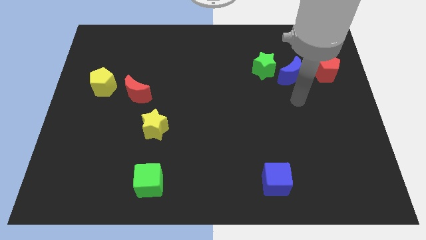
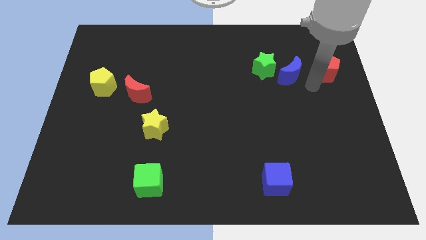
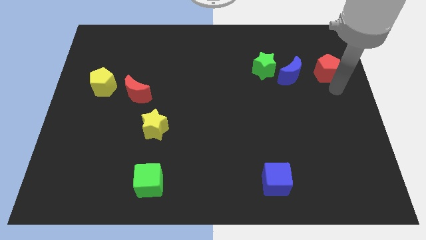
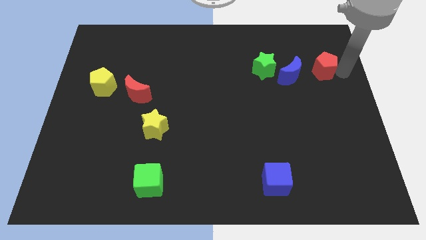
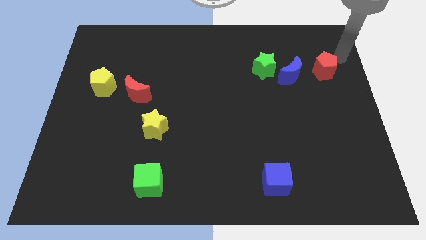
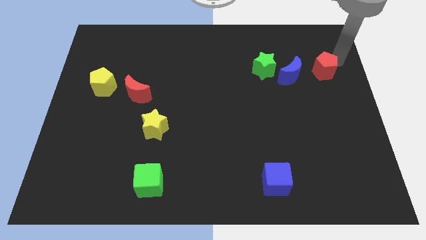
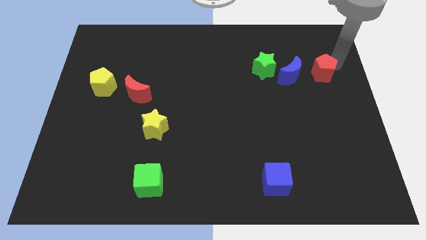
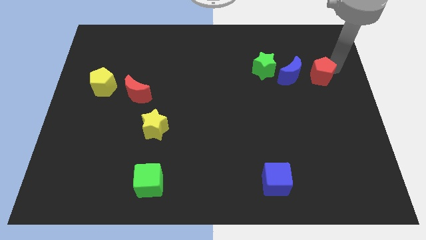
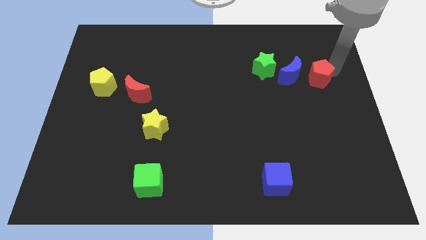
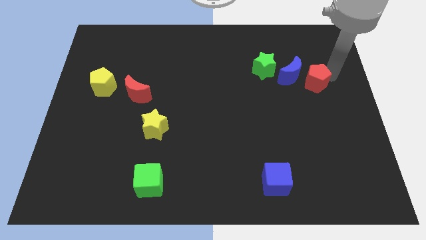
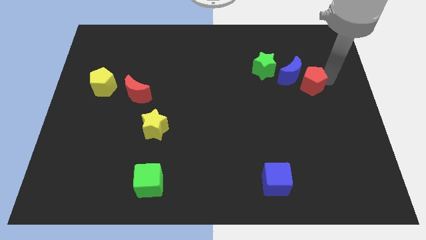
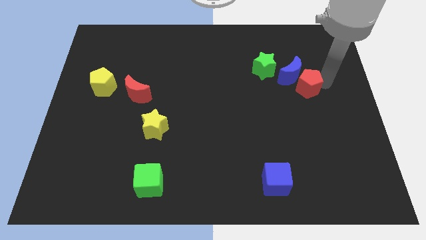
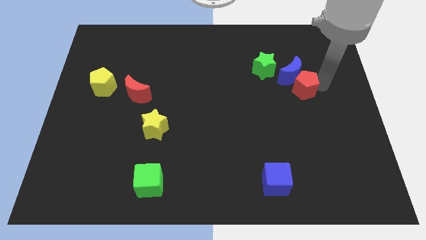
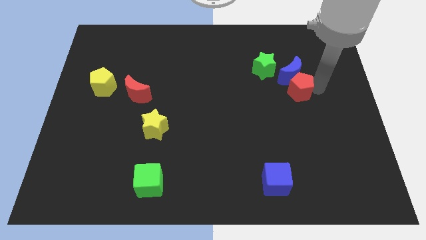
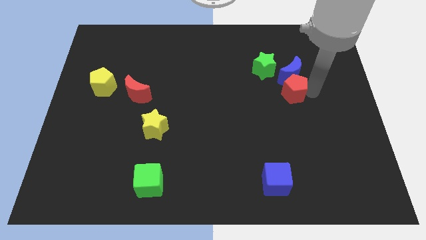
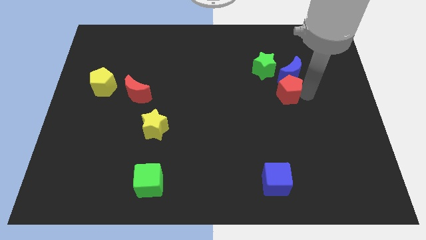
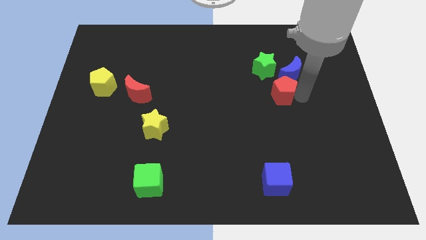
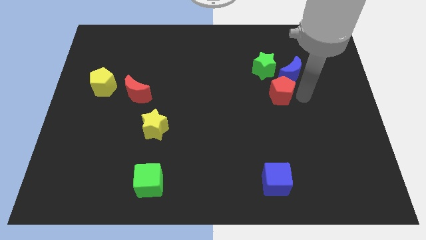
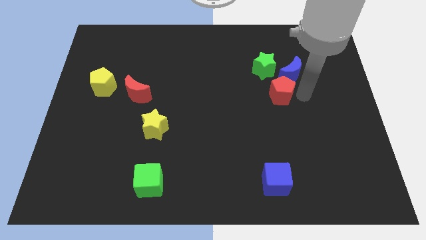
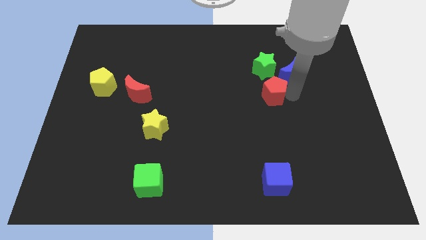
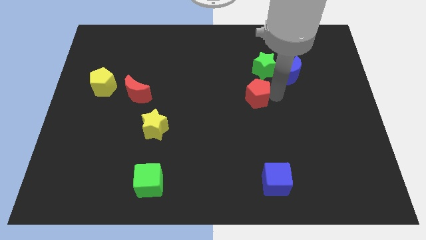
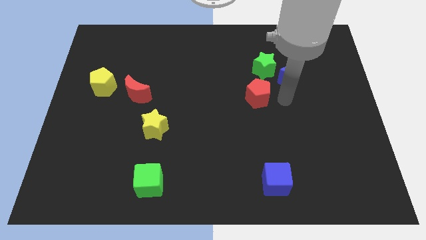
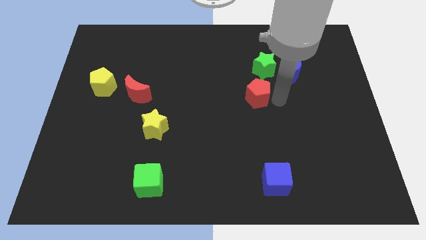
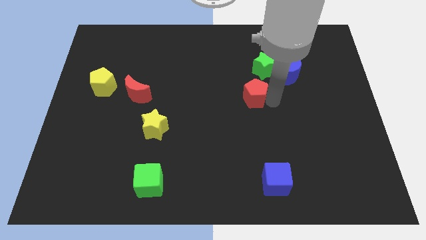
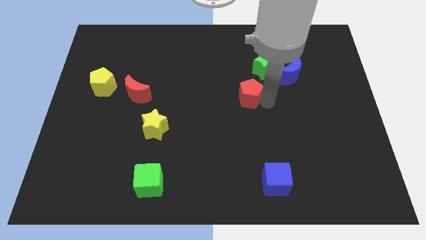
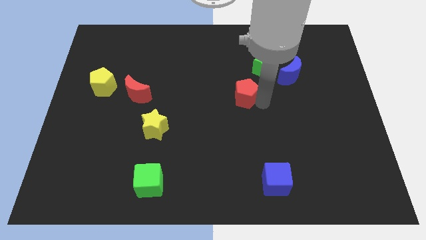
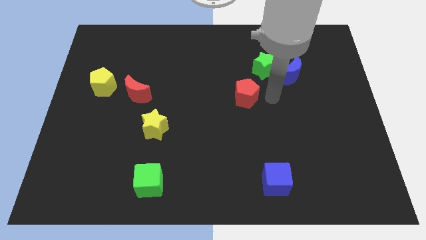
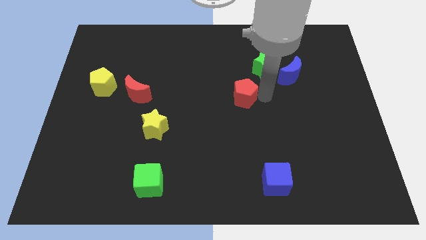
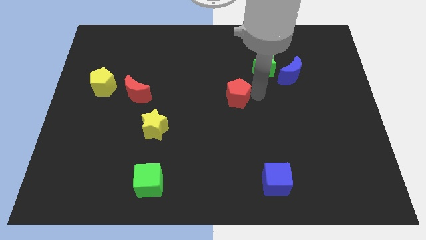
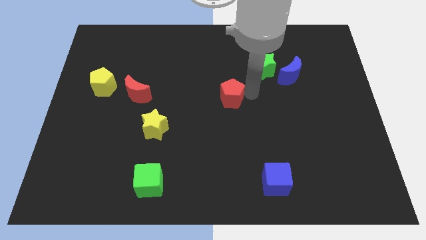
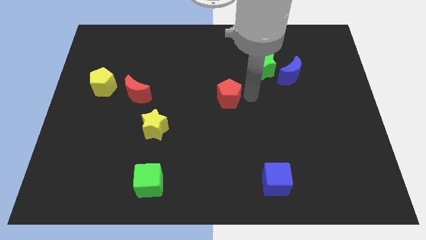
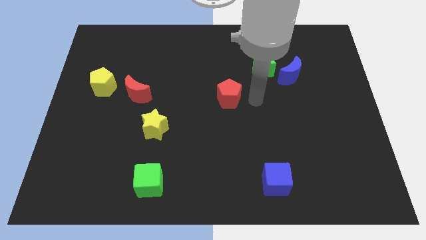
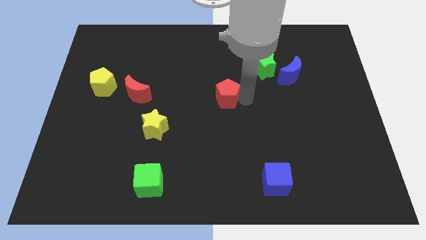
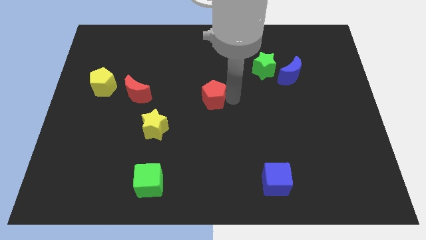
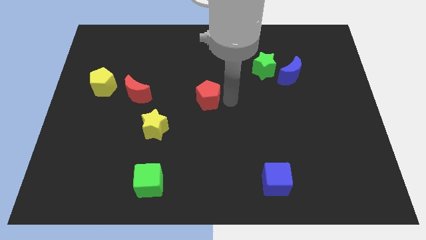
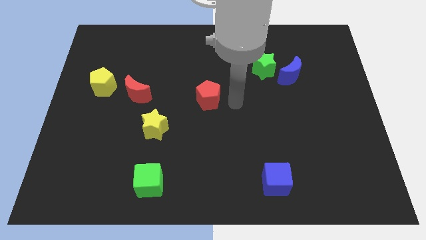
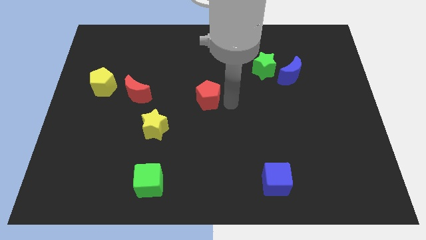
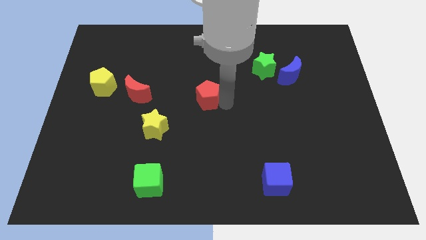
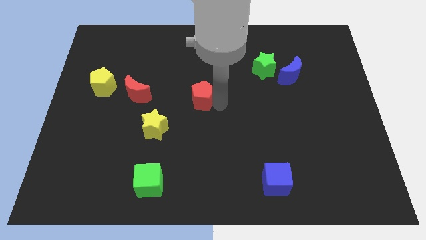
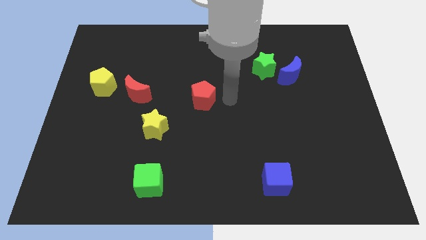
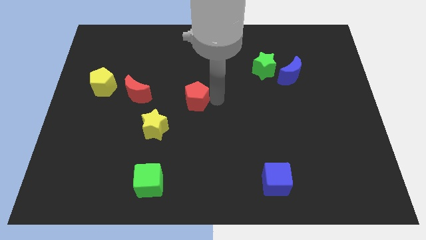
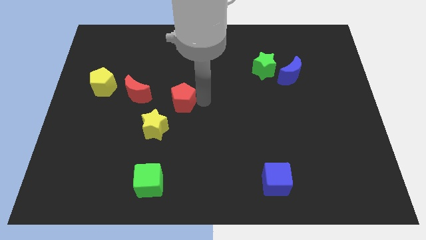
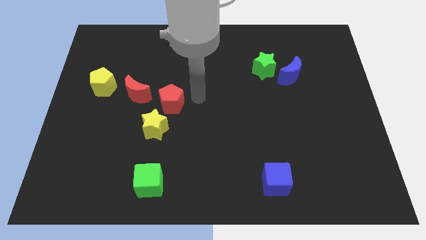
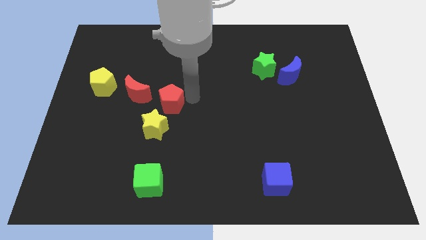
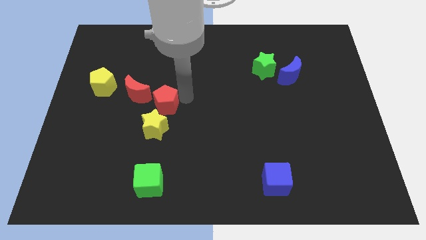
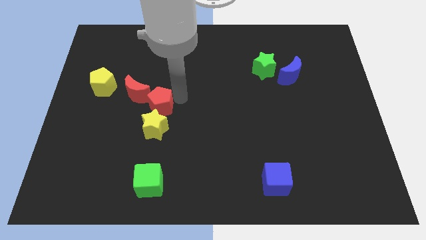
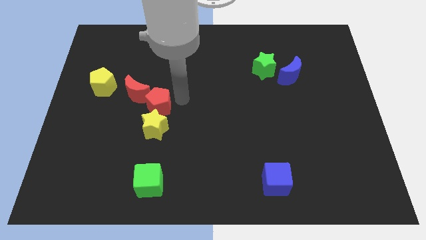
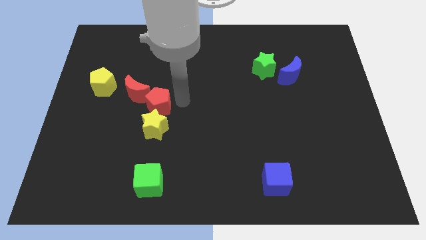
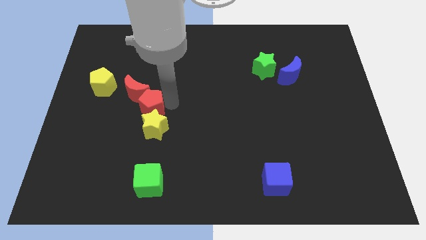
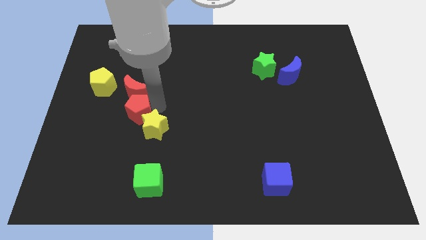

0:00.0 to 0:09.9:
slide the red pentagon left of the yellow star

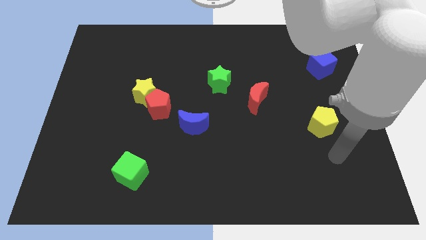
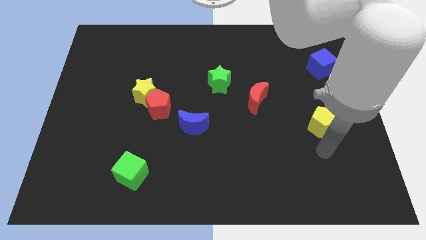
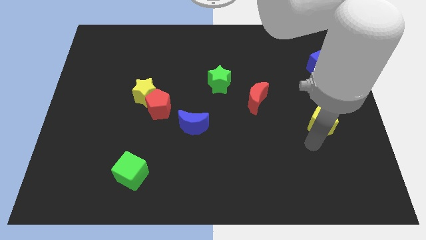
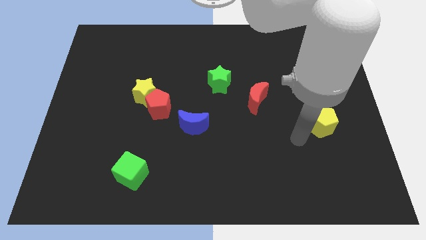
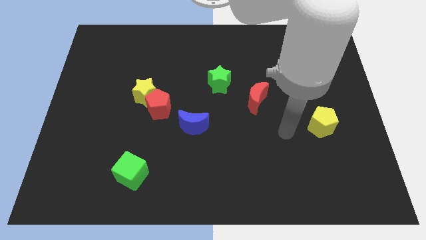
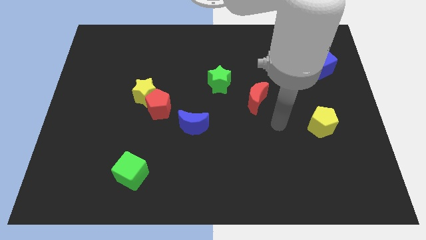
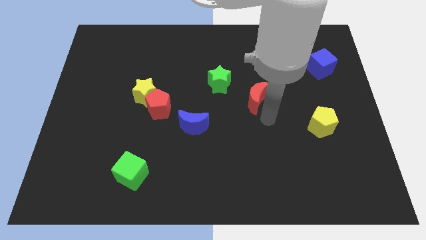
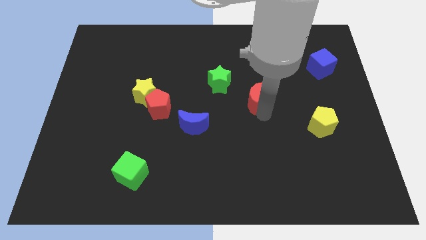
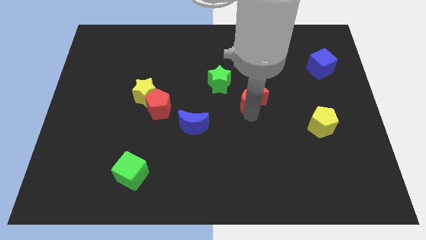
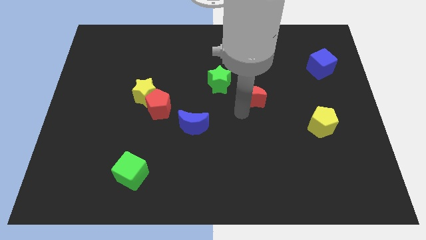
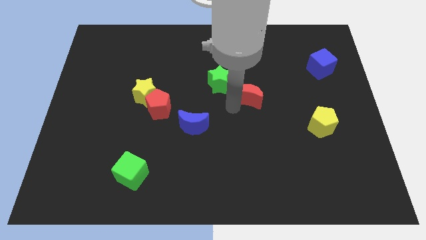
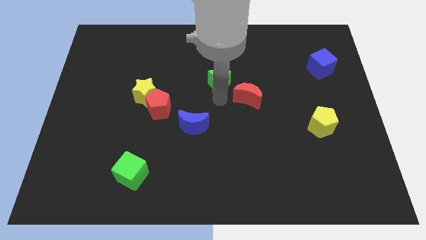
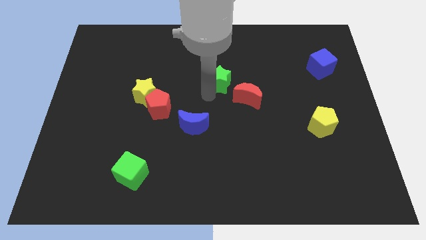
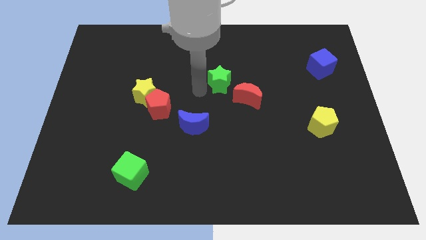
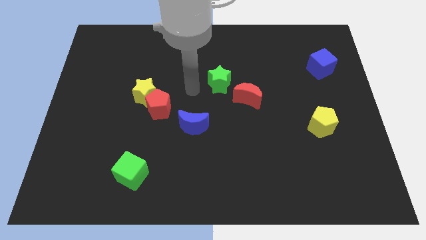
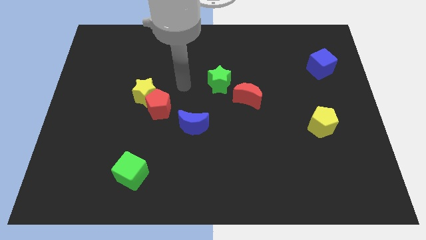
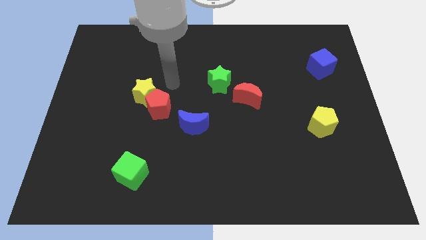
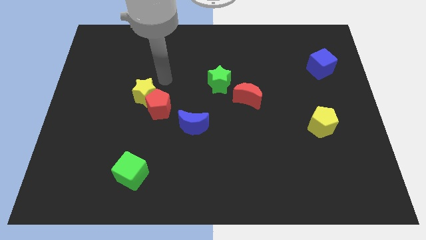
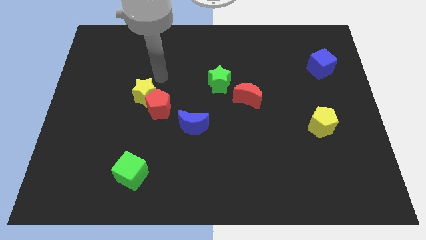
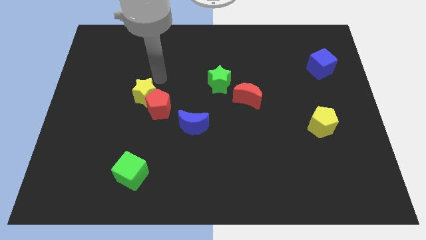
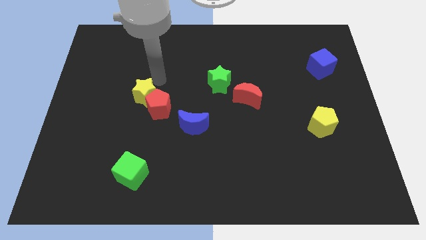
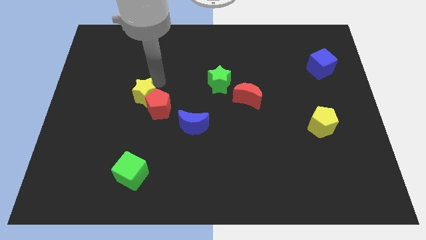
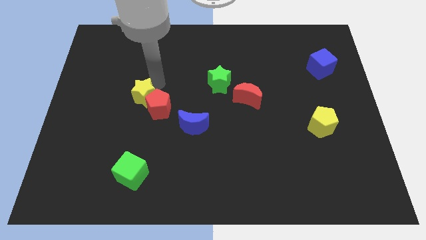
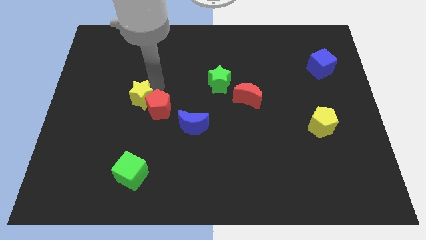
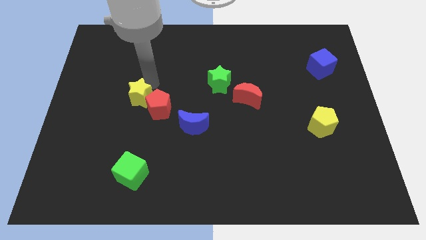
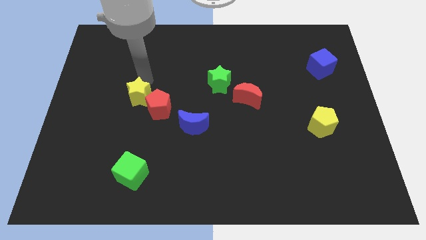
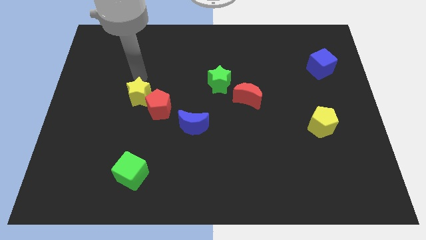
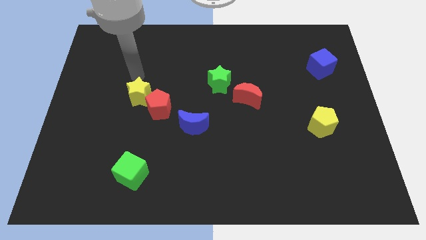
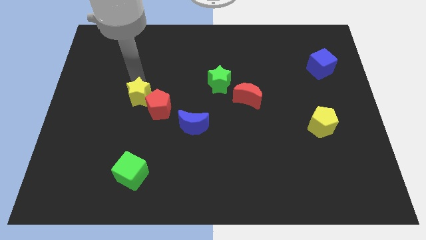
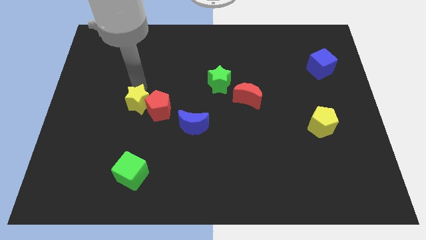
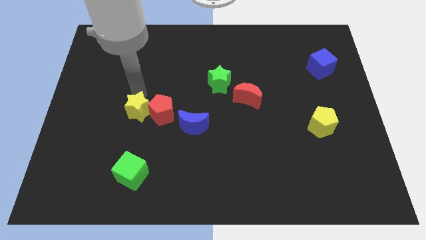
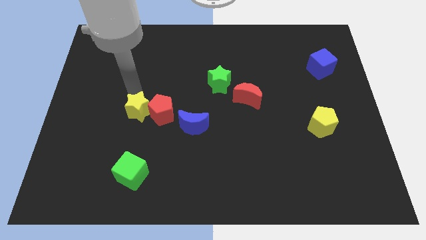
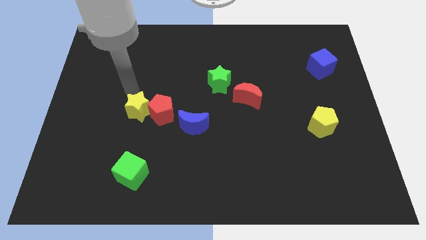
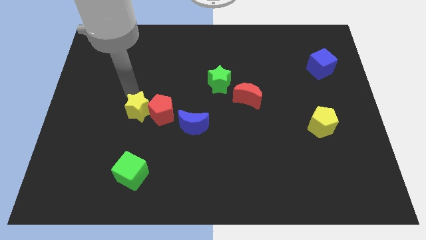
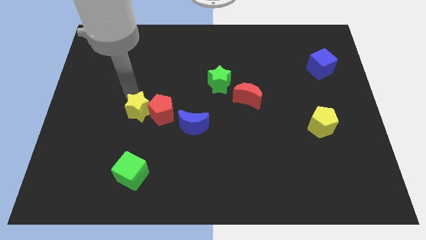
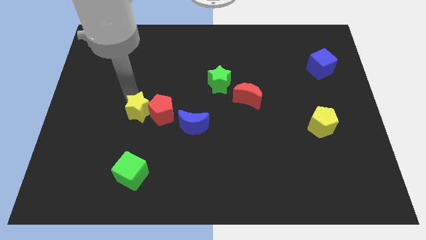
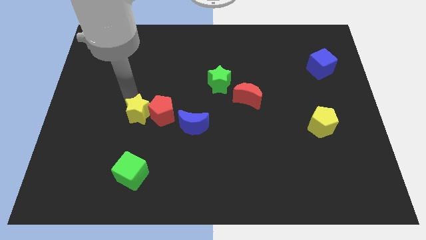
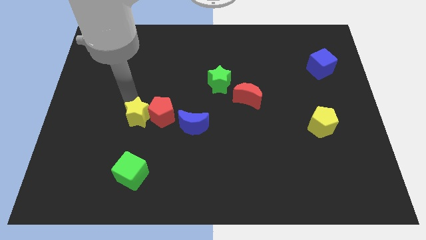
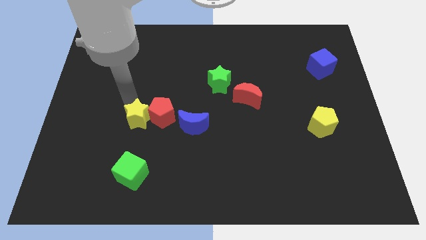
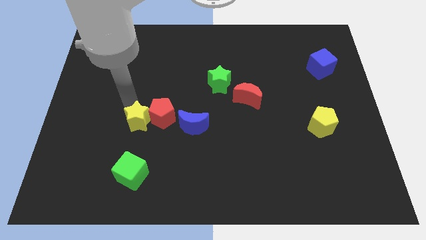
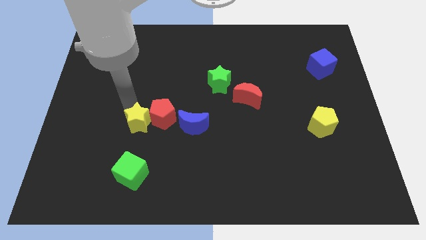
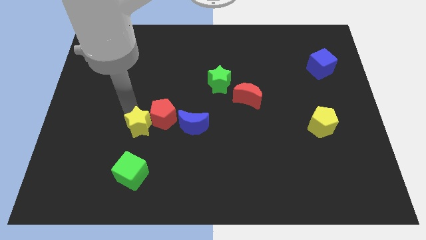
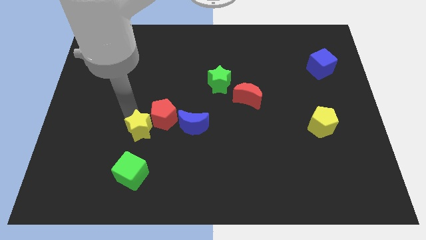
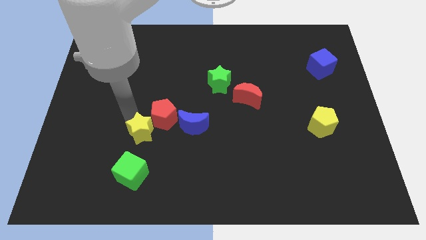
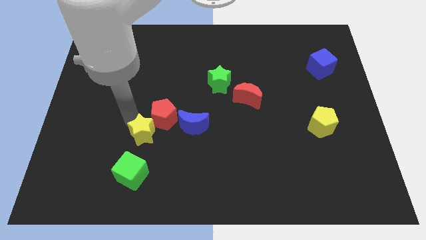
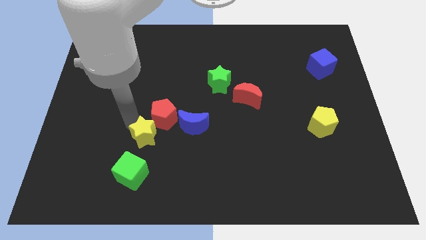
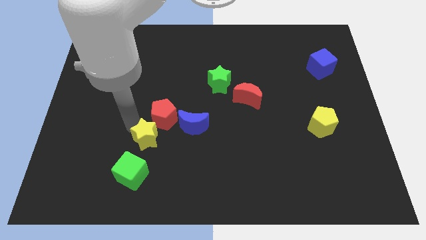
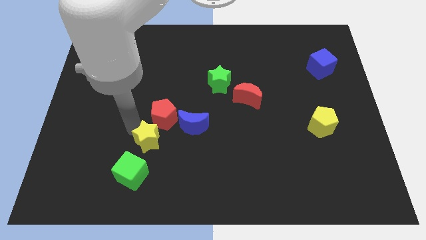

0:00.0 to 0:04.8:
slide the yellow star to the bottom left of the blue moon
